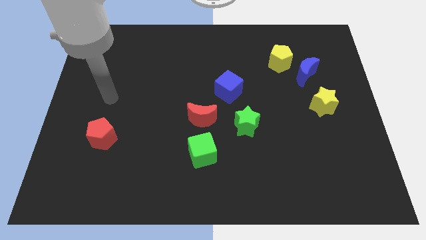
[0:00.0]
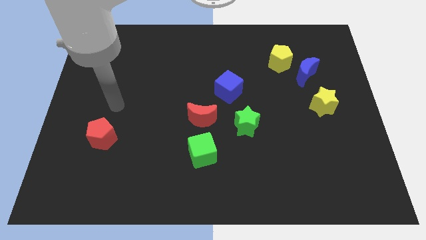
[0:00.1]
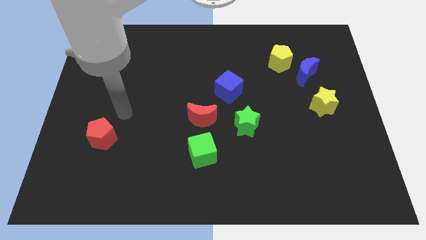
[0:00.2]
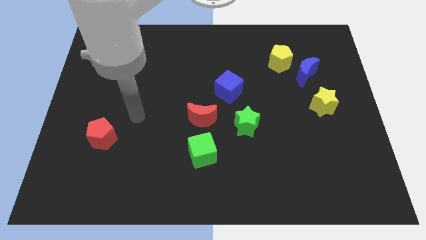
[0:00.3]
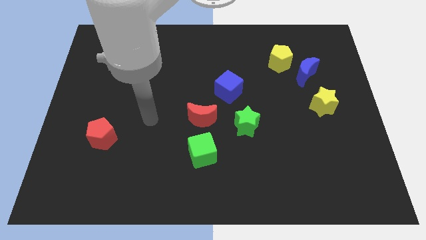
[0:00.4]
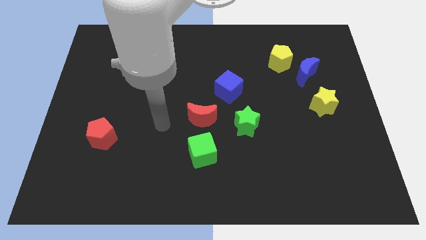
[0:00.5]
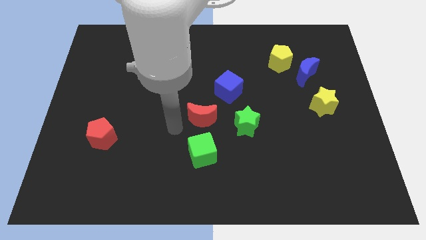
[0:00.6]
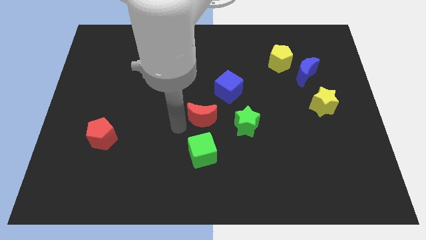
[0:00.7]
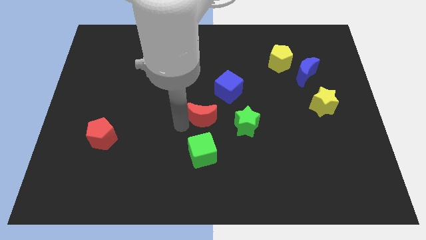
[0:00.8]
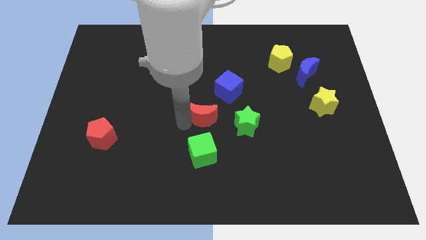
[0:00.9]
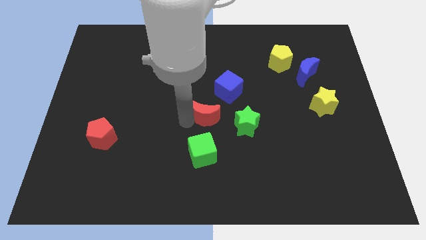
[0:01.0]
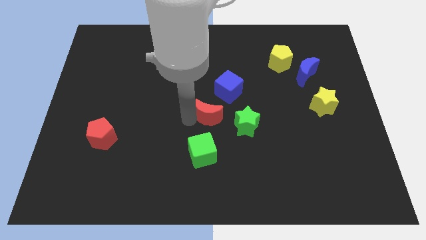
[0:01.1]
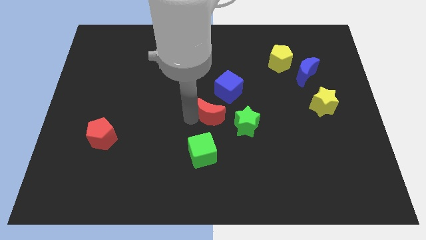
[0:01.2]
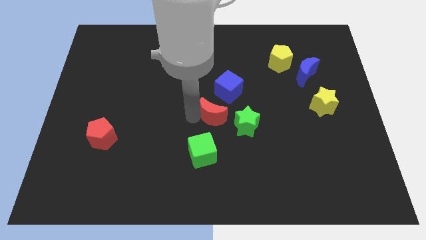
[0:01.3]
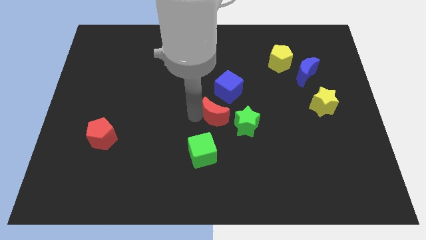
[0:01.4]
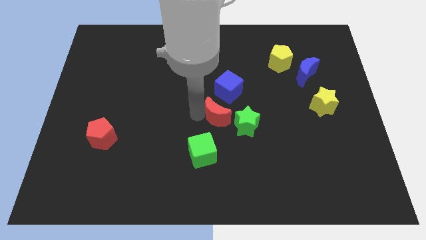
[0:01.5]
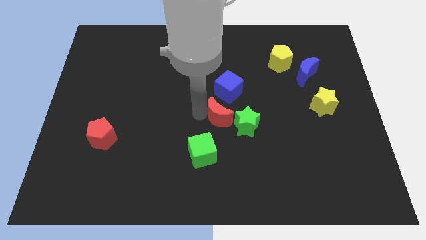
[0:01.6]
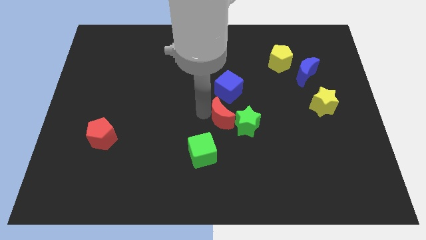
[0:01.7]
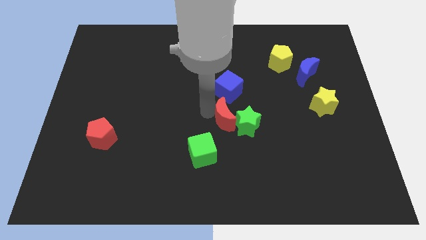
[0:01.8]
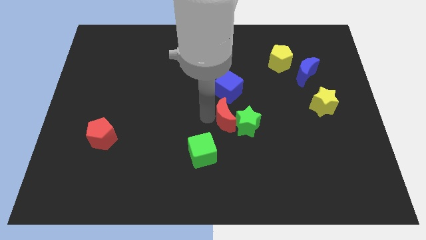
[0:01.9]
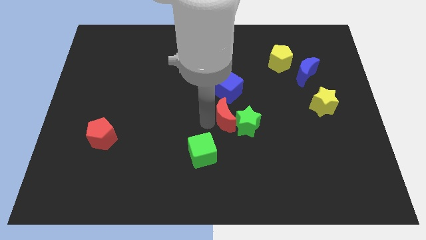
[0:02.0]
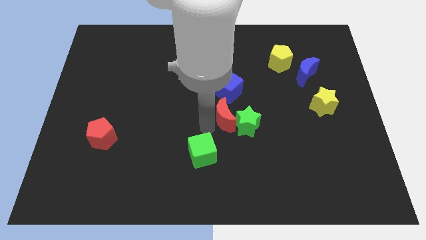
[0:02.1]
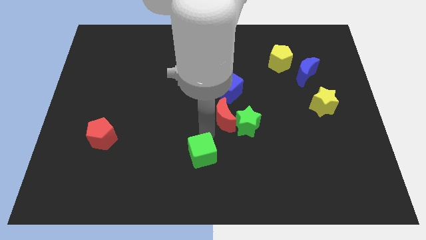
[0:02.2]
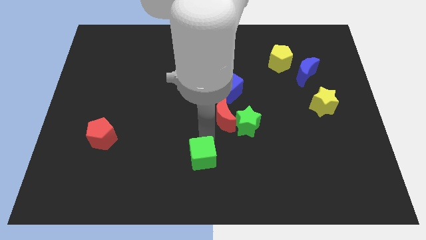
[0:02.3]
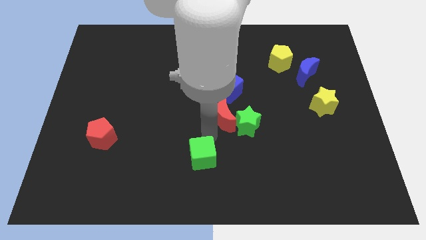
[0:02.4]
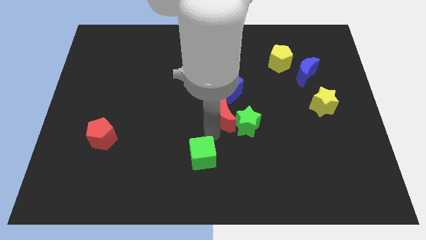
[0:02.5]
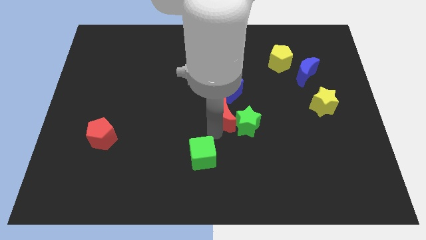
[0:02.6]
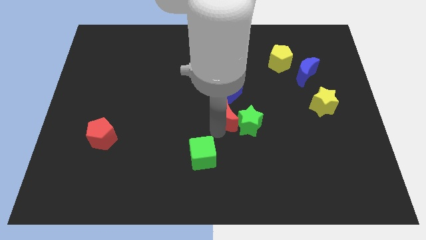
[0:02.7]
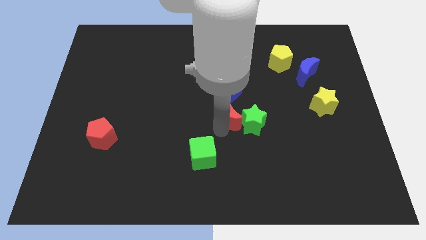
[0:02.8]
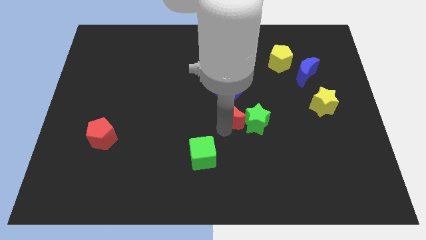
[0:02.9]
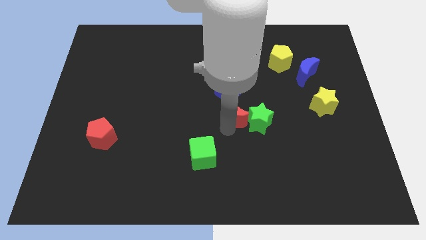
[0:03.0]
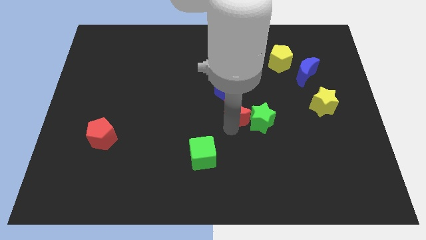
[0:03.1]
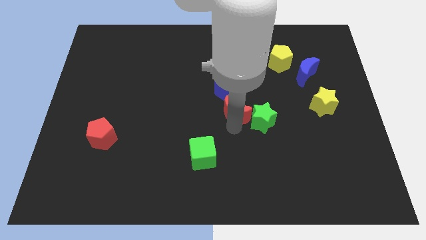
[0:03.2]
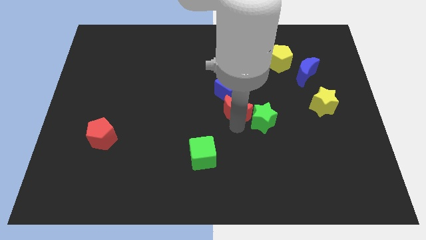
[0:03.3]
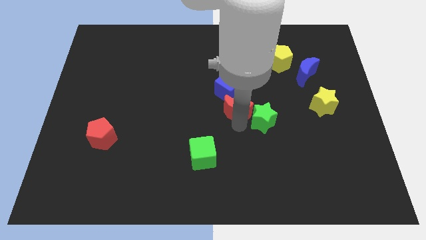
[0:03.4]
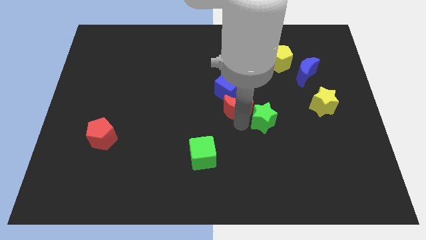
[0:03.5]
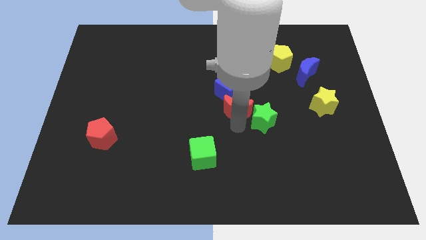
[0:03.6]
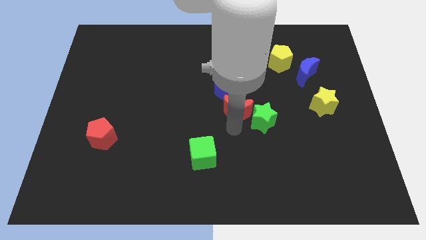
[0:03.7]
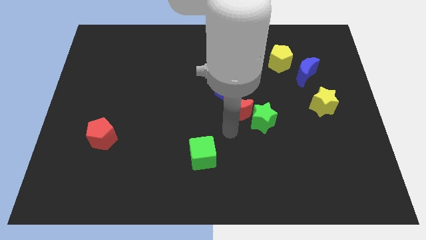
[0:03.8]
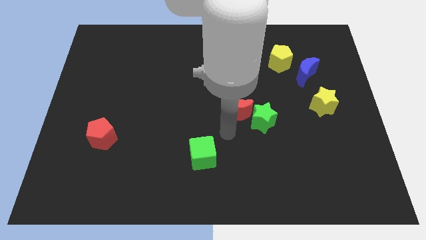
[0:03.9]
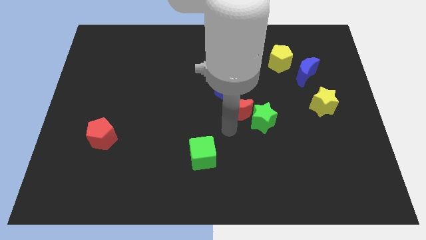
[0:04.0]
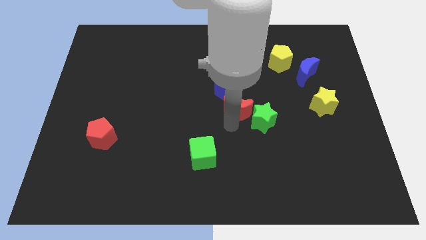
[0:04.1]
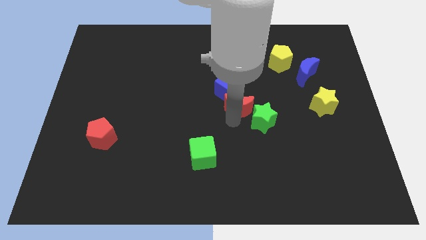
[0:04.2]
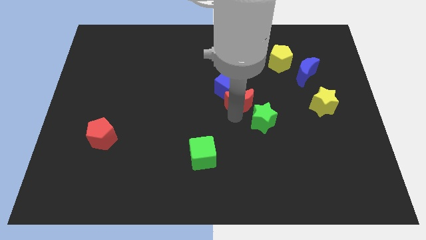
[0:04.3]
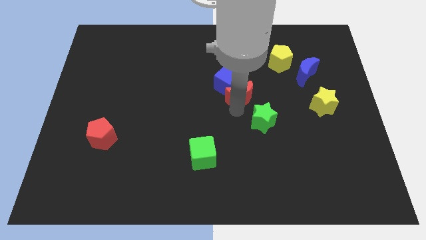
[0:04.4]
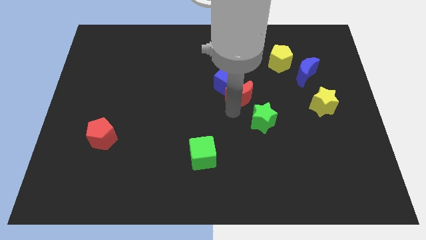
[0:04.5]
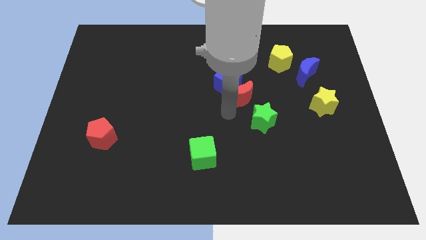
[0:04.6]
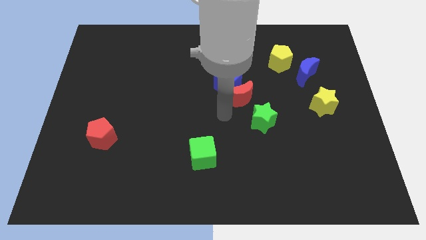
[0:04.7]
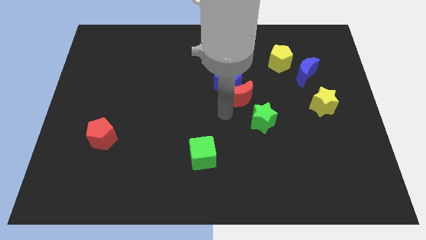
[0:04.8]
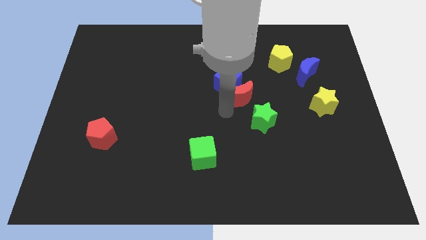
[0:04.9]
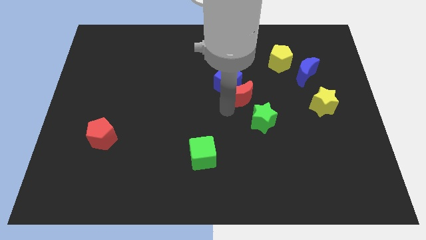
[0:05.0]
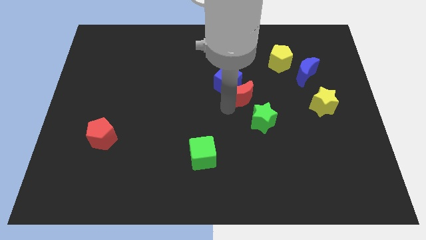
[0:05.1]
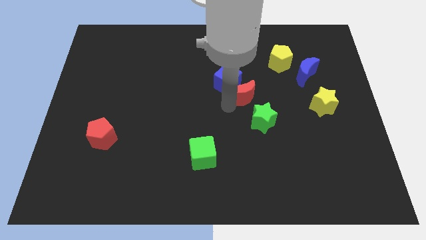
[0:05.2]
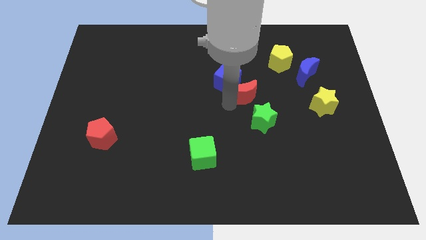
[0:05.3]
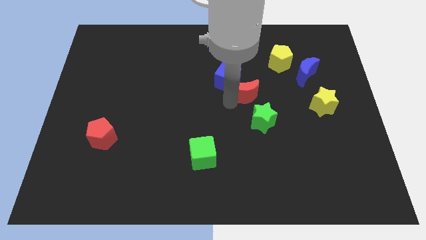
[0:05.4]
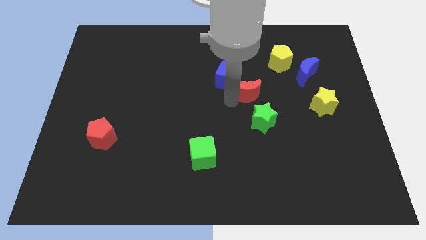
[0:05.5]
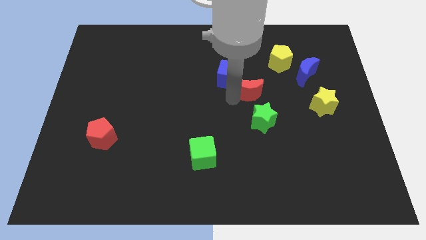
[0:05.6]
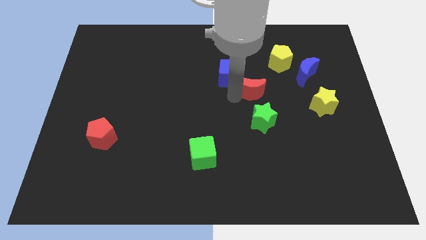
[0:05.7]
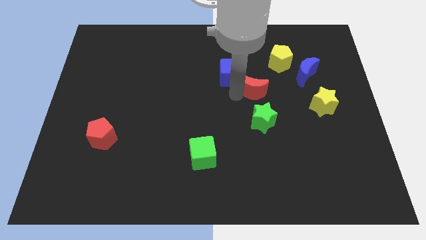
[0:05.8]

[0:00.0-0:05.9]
slide the red moon to the bottom left of the yellow pentagon

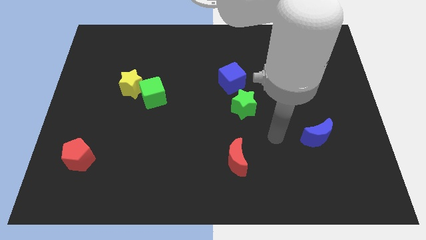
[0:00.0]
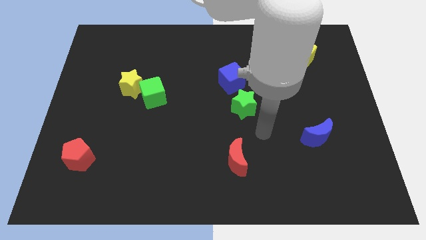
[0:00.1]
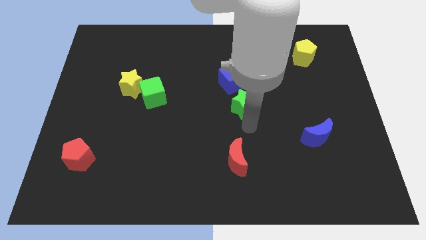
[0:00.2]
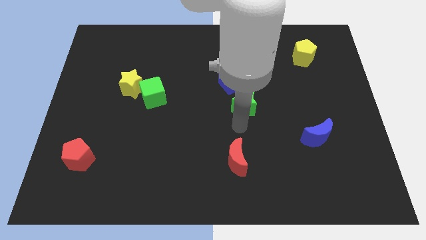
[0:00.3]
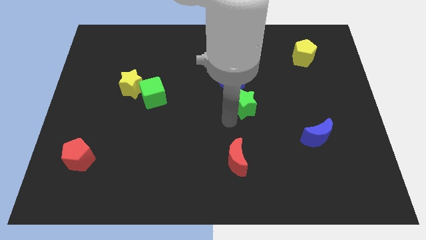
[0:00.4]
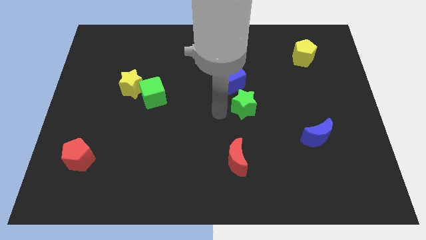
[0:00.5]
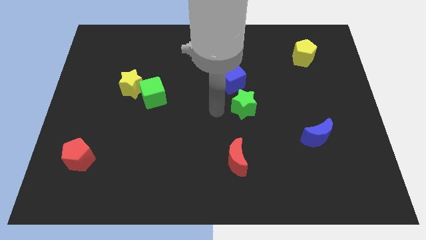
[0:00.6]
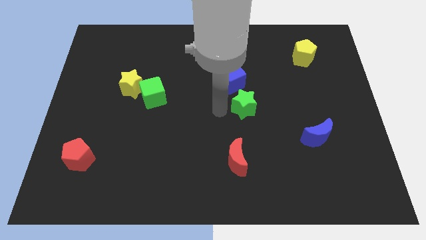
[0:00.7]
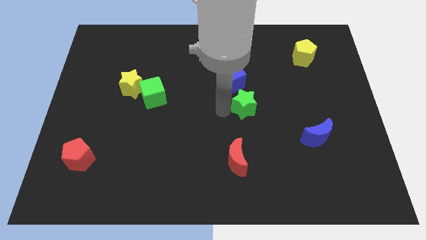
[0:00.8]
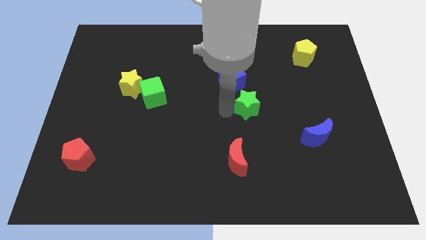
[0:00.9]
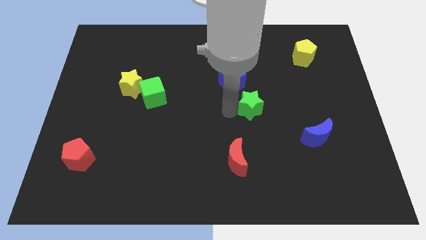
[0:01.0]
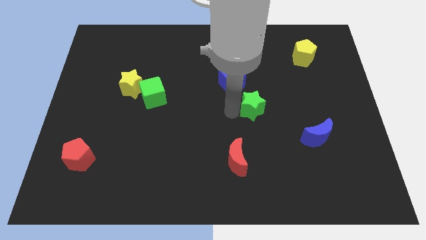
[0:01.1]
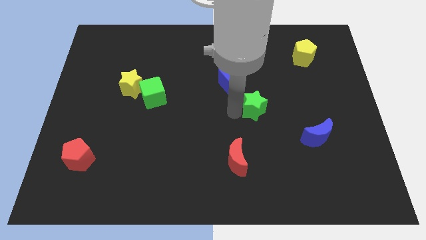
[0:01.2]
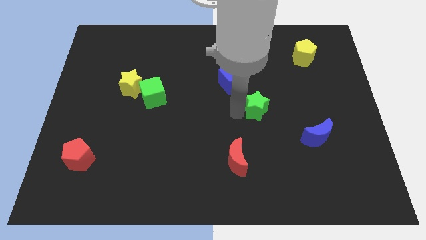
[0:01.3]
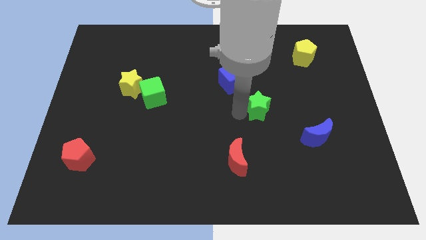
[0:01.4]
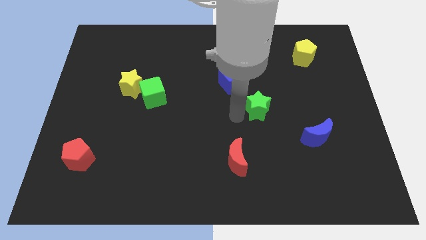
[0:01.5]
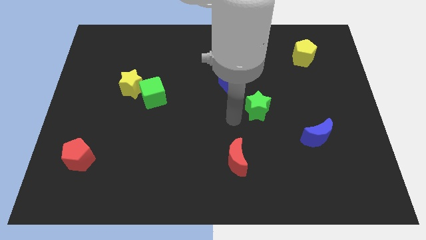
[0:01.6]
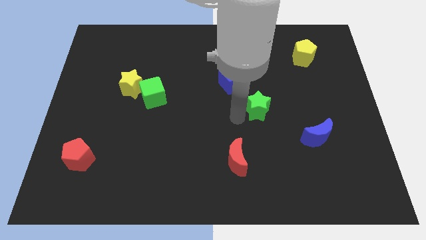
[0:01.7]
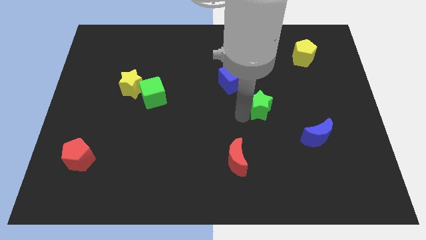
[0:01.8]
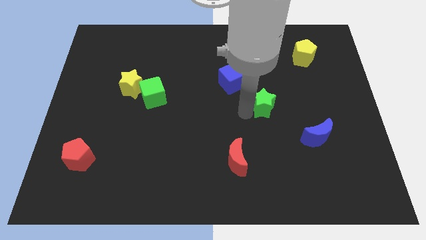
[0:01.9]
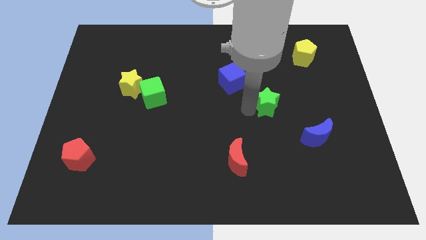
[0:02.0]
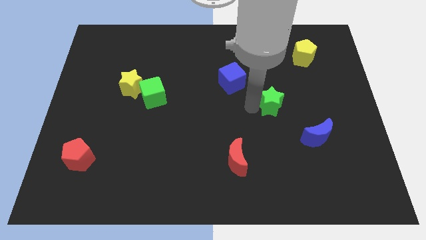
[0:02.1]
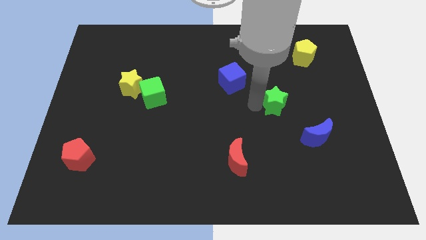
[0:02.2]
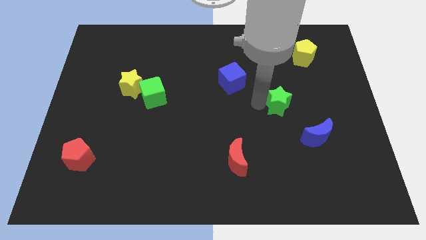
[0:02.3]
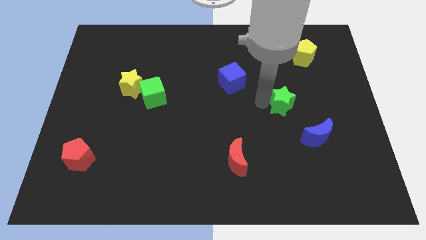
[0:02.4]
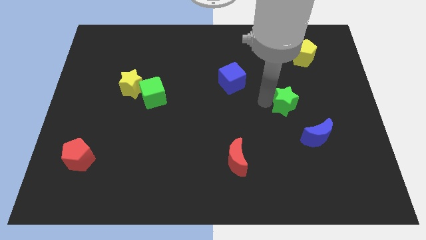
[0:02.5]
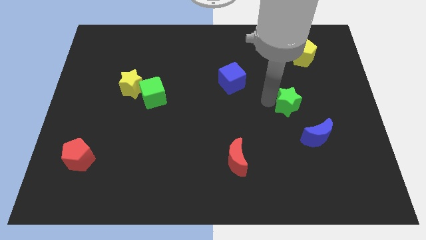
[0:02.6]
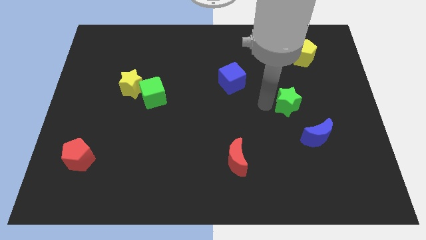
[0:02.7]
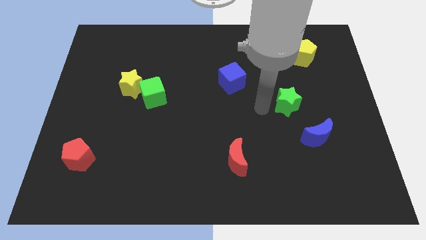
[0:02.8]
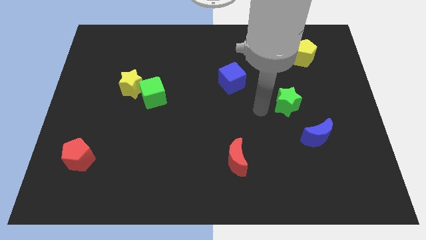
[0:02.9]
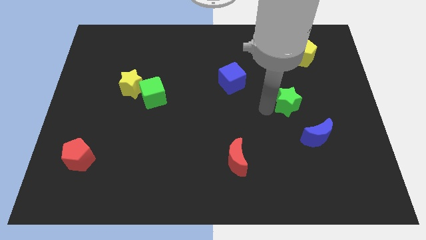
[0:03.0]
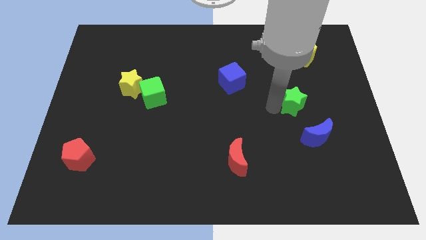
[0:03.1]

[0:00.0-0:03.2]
put the green star to the top side of the blue moon
